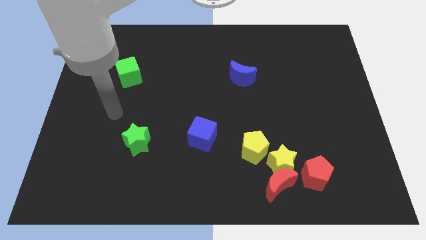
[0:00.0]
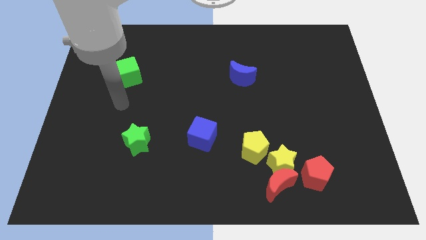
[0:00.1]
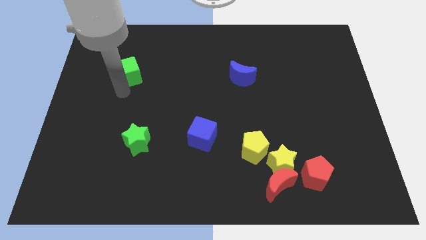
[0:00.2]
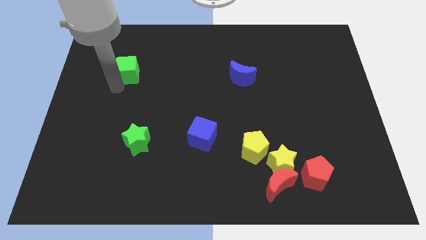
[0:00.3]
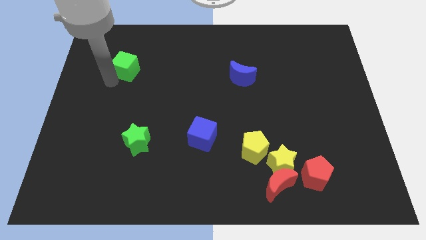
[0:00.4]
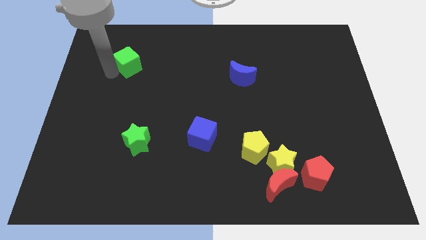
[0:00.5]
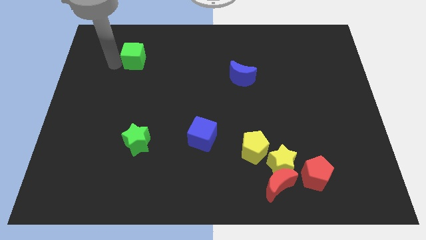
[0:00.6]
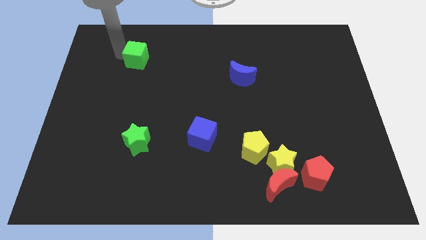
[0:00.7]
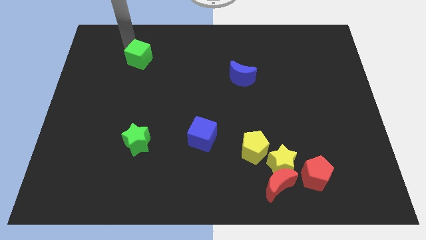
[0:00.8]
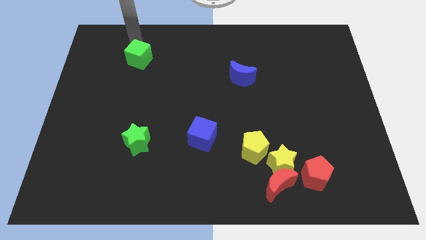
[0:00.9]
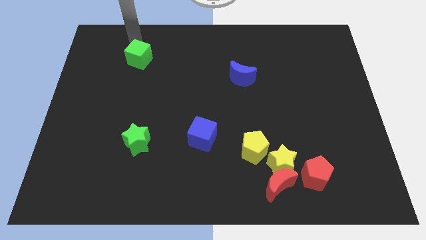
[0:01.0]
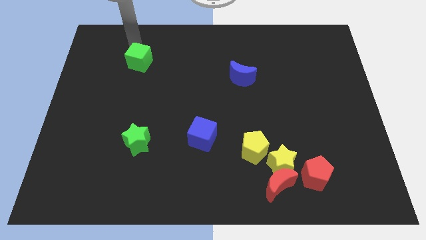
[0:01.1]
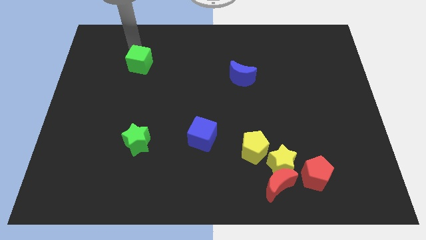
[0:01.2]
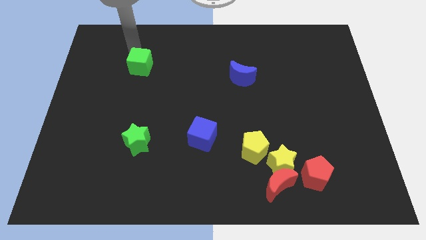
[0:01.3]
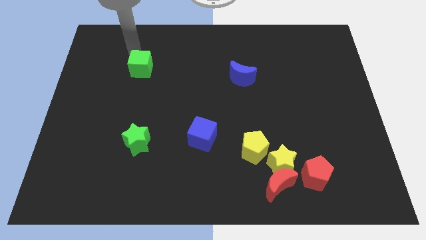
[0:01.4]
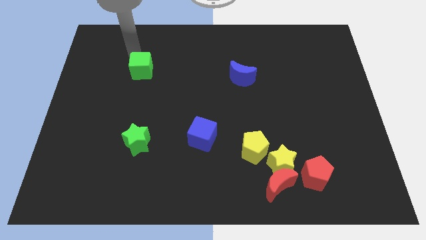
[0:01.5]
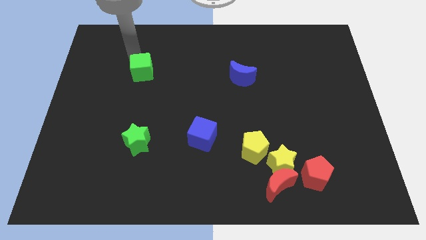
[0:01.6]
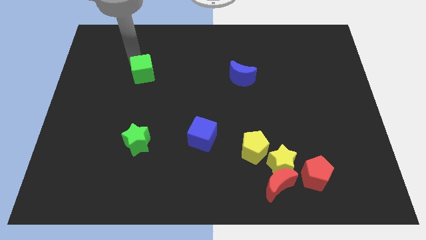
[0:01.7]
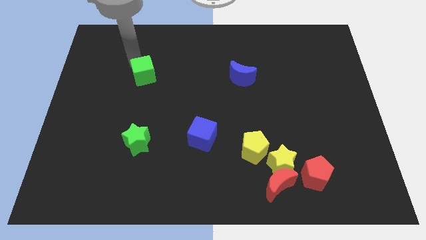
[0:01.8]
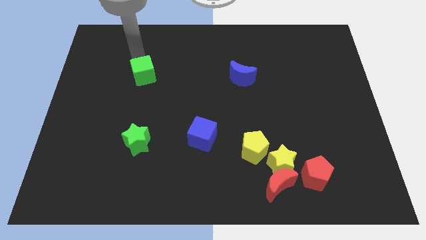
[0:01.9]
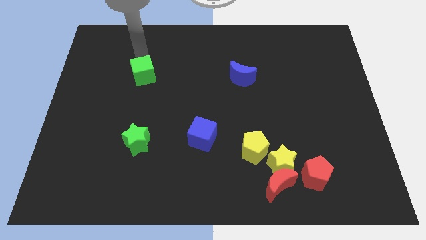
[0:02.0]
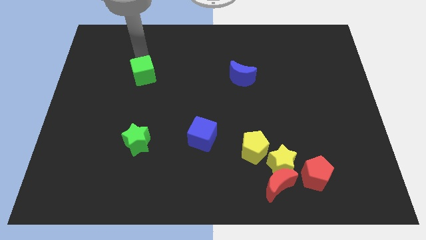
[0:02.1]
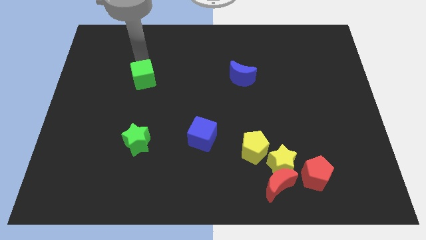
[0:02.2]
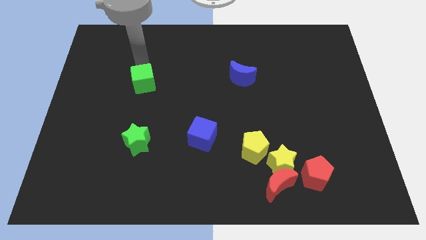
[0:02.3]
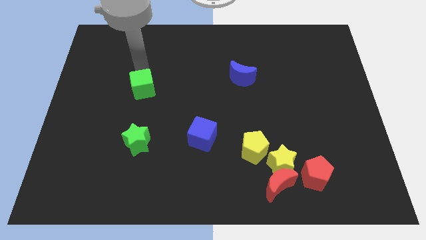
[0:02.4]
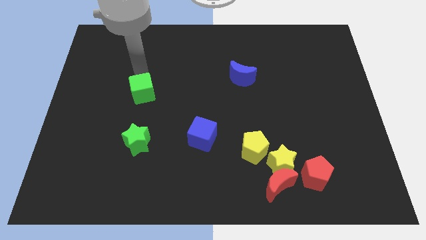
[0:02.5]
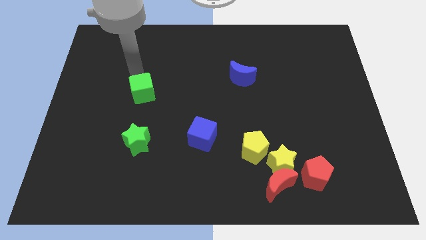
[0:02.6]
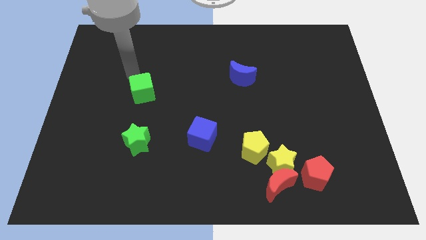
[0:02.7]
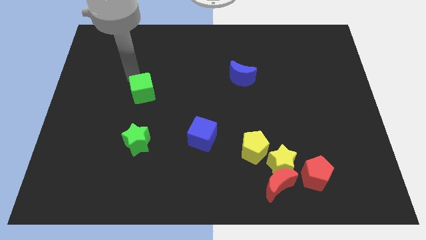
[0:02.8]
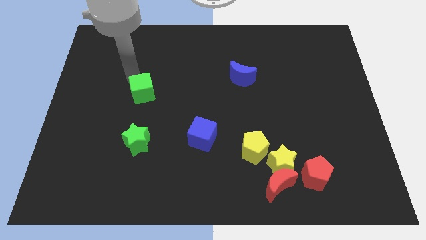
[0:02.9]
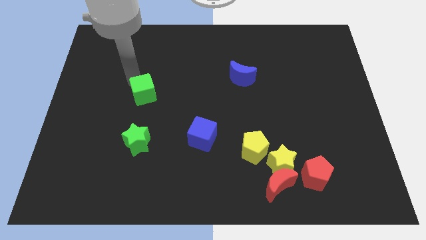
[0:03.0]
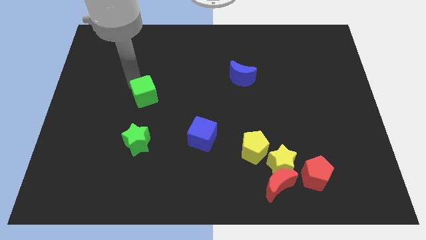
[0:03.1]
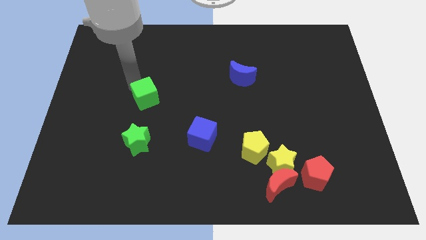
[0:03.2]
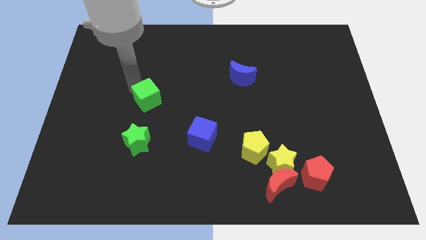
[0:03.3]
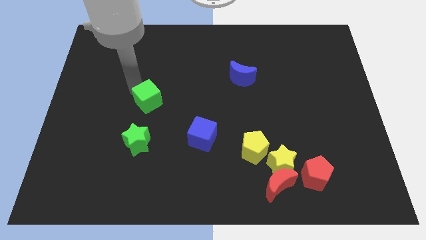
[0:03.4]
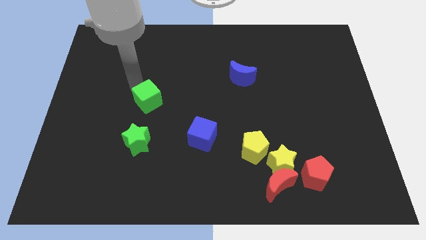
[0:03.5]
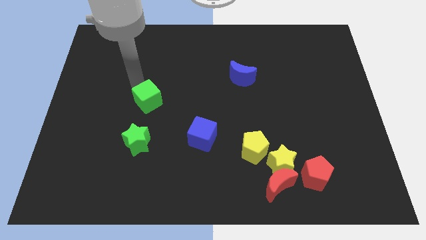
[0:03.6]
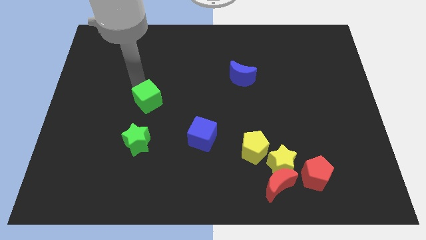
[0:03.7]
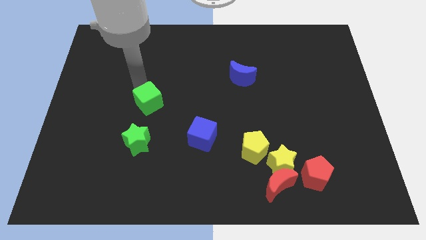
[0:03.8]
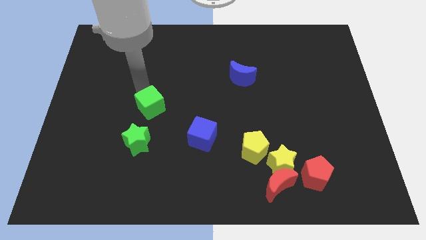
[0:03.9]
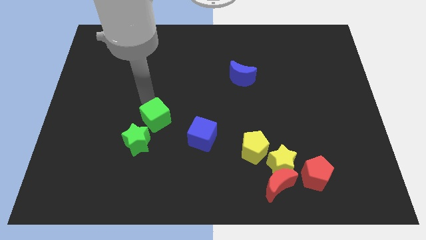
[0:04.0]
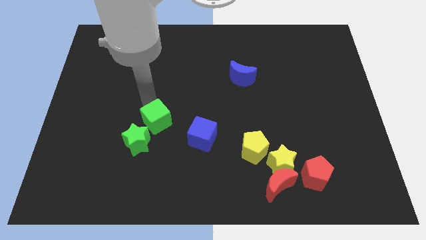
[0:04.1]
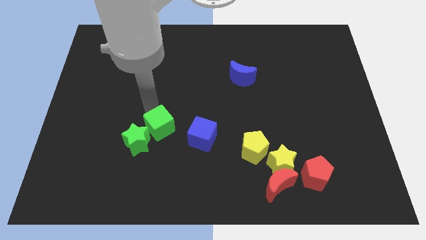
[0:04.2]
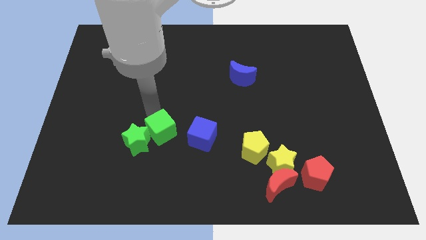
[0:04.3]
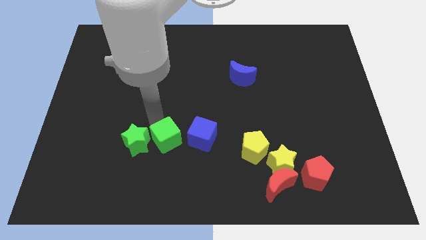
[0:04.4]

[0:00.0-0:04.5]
slide the green cube downwards and then right

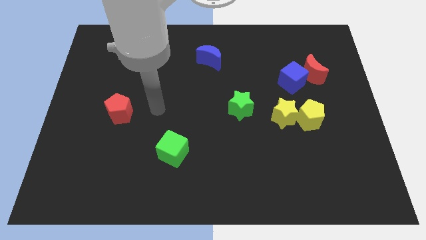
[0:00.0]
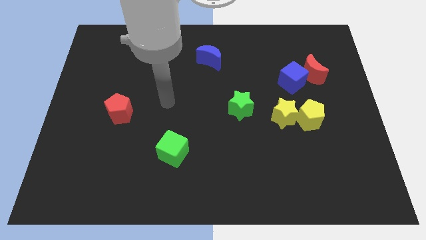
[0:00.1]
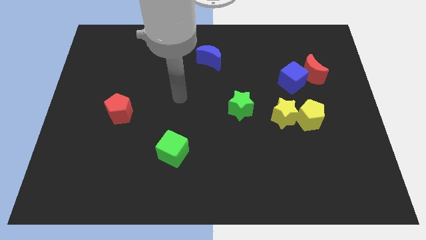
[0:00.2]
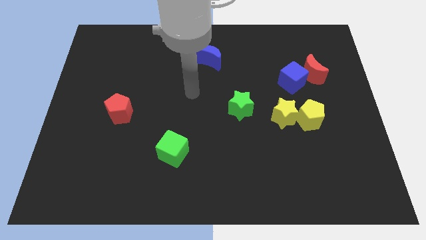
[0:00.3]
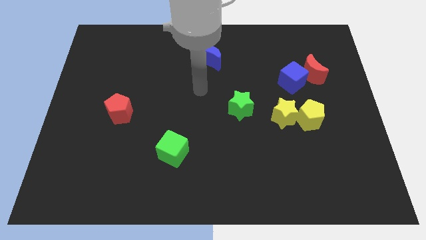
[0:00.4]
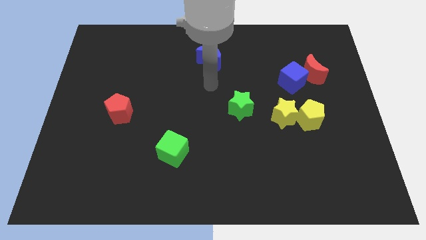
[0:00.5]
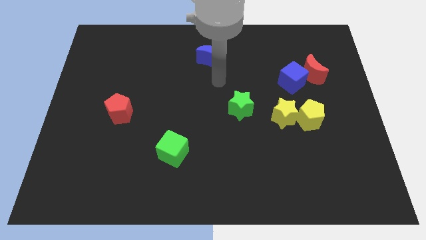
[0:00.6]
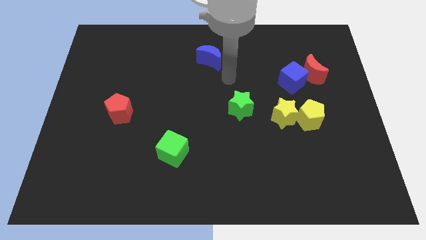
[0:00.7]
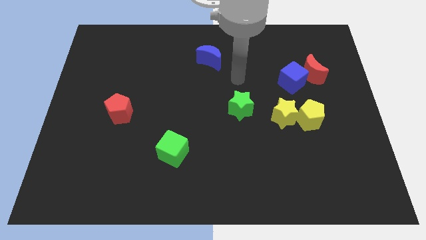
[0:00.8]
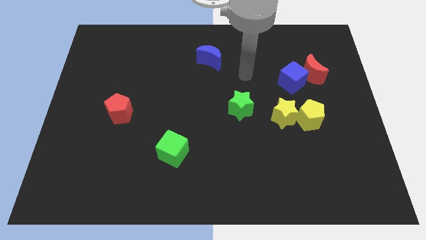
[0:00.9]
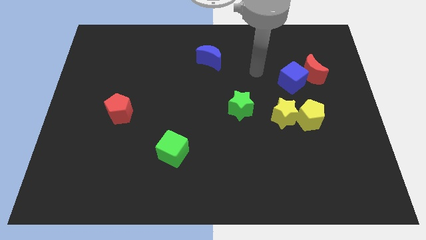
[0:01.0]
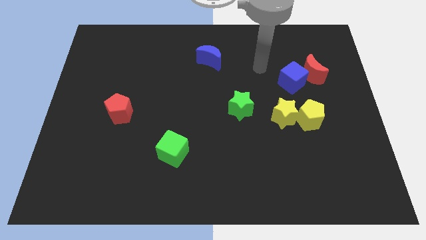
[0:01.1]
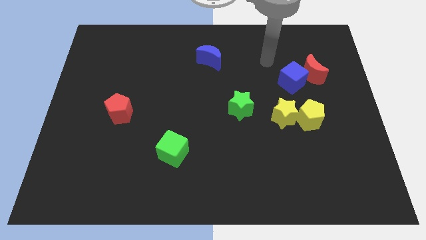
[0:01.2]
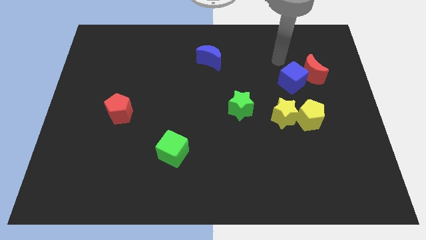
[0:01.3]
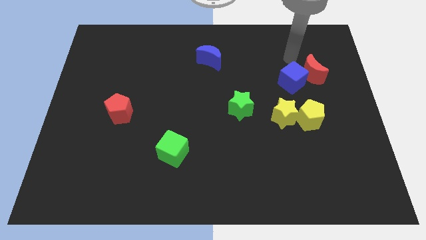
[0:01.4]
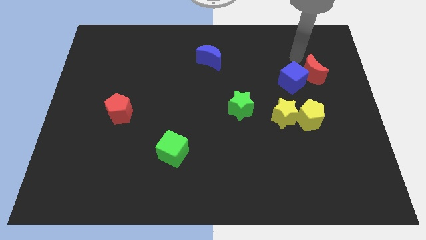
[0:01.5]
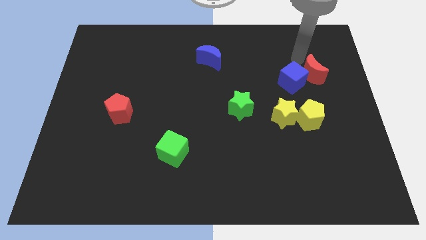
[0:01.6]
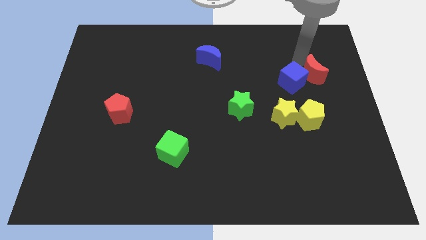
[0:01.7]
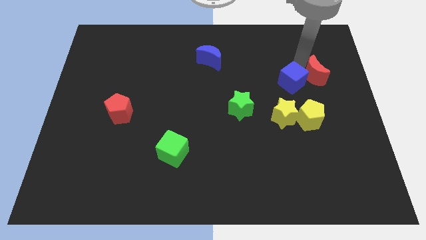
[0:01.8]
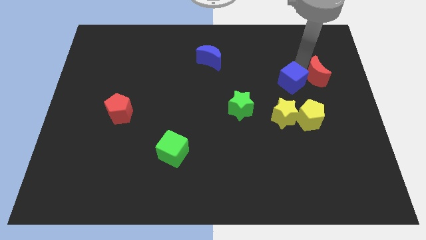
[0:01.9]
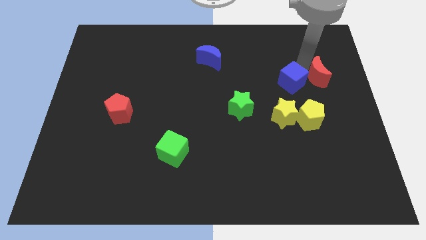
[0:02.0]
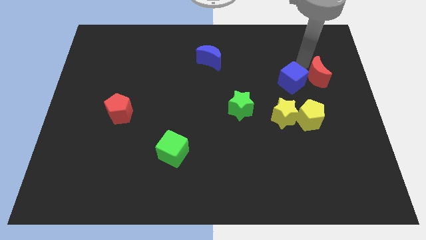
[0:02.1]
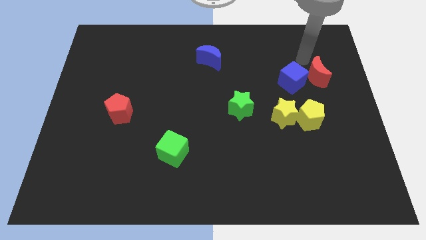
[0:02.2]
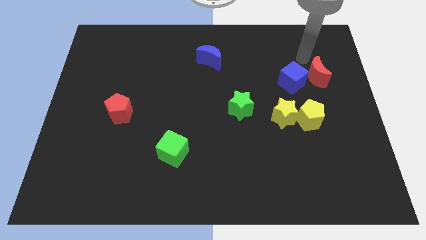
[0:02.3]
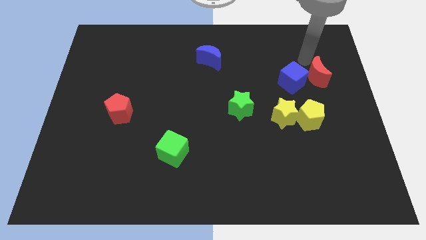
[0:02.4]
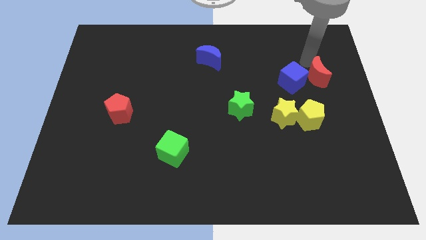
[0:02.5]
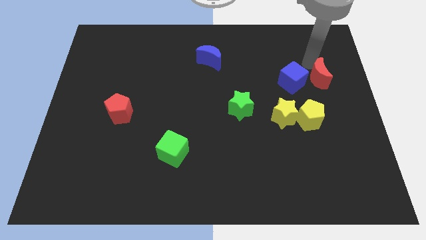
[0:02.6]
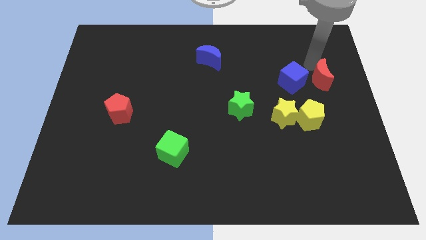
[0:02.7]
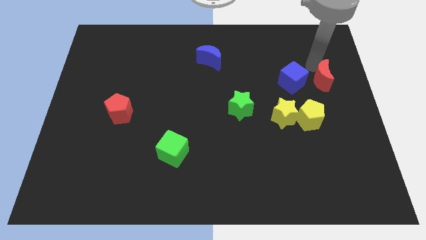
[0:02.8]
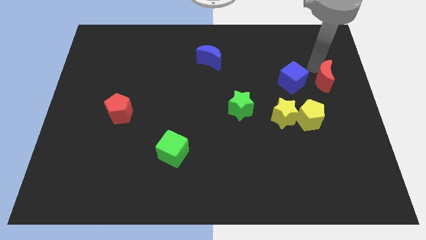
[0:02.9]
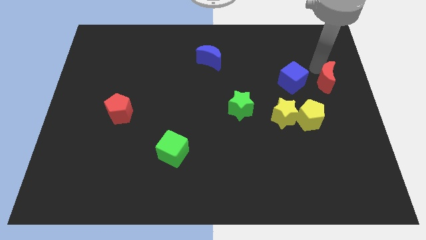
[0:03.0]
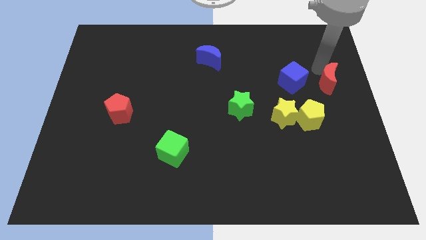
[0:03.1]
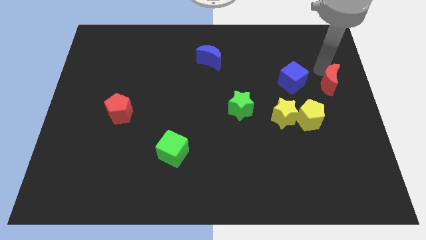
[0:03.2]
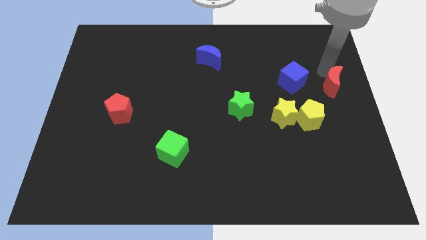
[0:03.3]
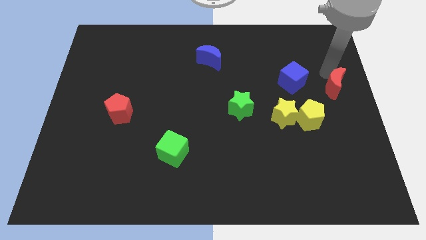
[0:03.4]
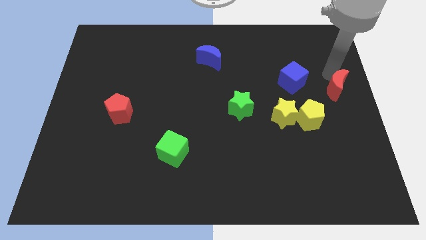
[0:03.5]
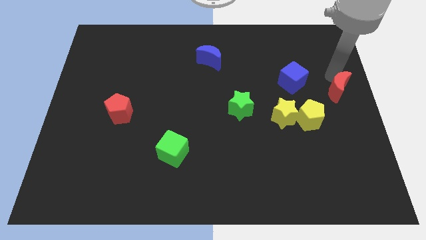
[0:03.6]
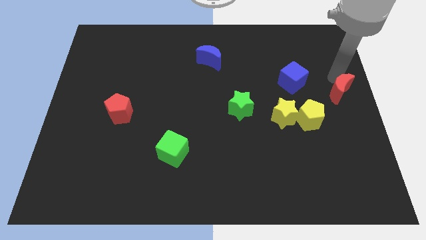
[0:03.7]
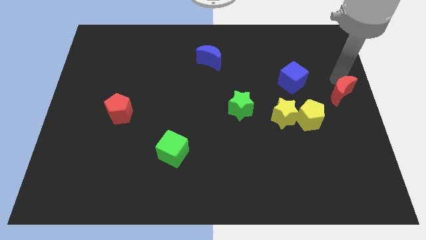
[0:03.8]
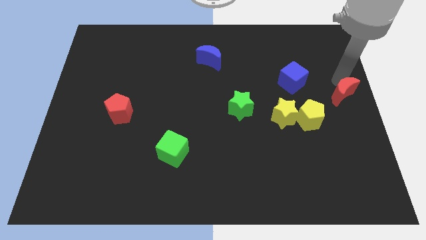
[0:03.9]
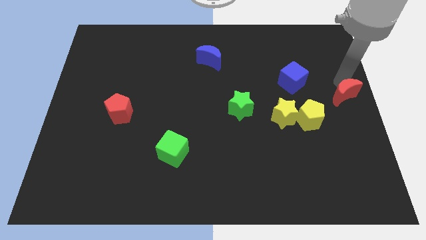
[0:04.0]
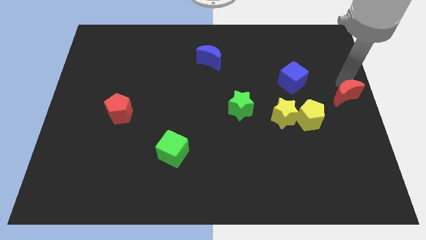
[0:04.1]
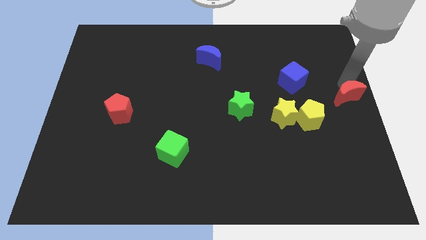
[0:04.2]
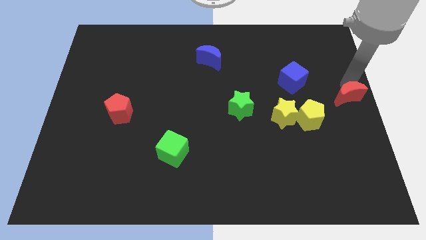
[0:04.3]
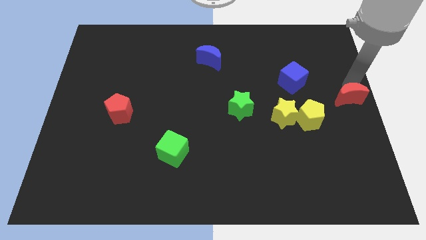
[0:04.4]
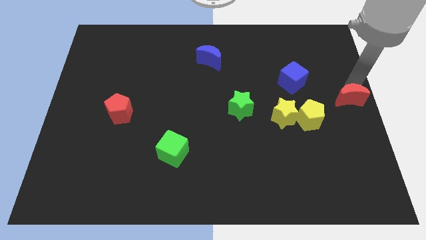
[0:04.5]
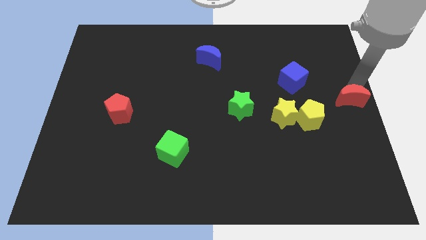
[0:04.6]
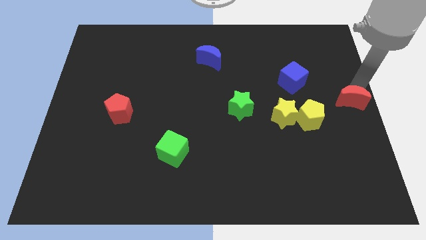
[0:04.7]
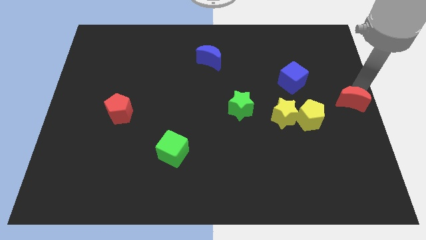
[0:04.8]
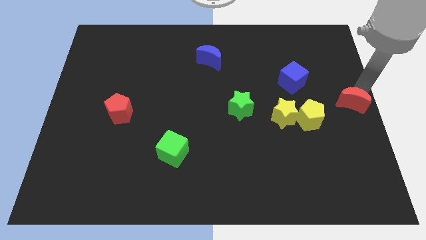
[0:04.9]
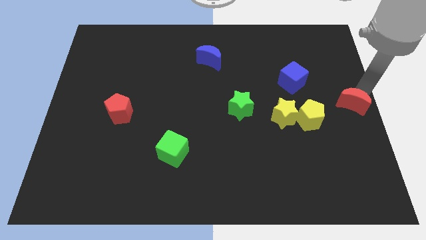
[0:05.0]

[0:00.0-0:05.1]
slightly slide the red moon down
